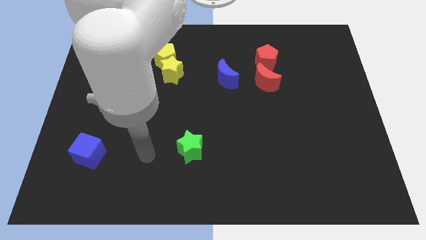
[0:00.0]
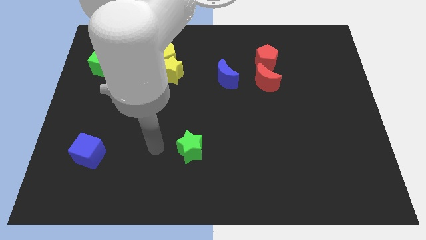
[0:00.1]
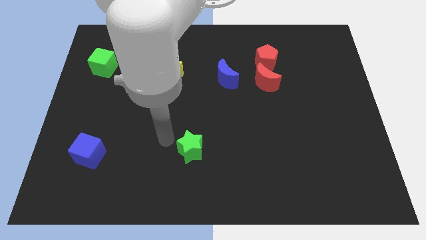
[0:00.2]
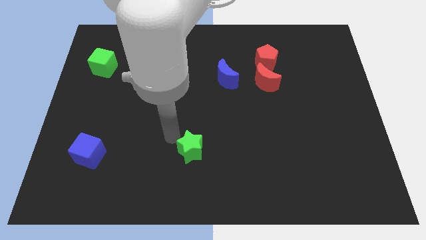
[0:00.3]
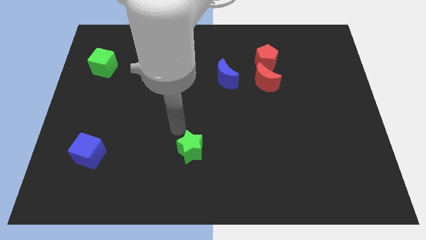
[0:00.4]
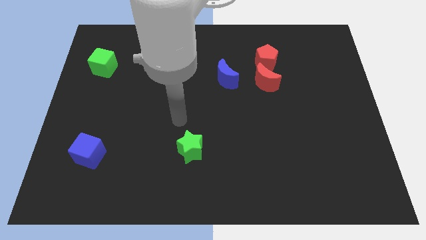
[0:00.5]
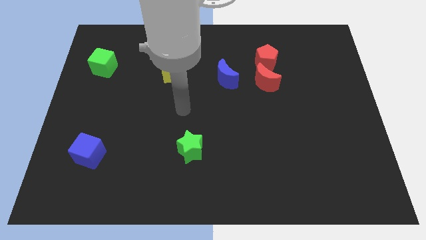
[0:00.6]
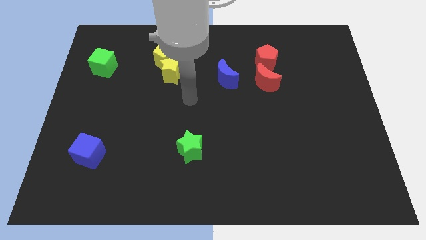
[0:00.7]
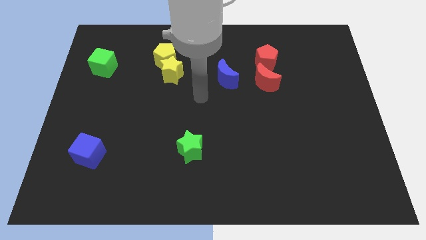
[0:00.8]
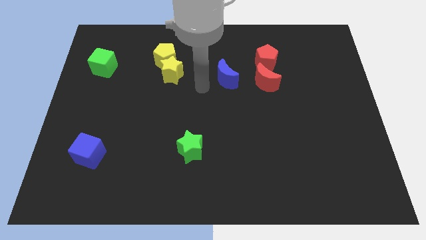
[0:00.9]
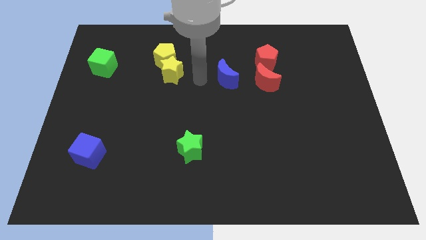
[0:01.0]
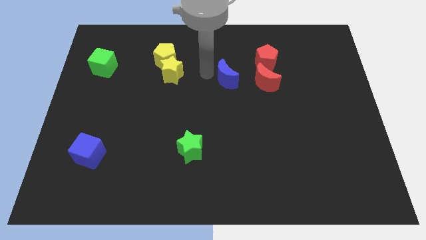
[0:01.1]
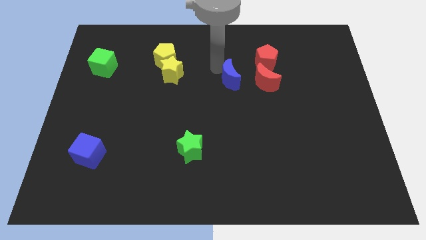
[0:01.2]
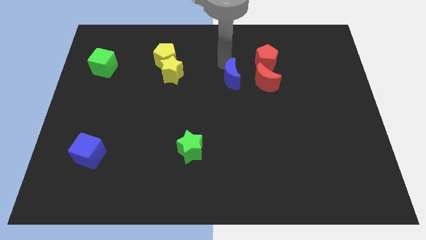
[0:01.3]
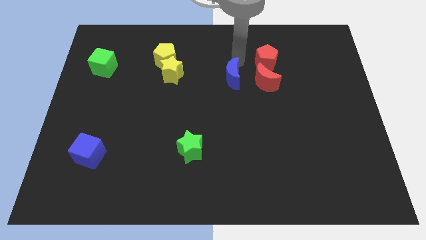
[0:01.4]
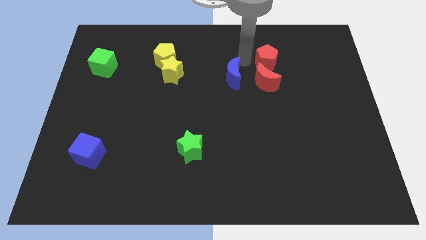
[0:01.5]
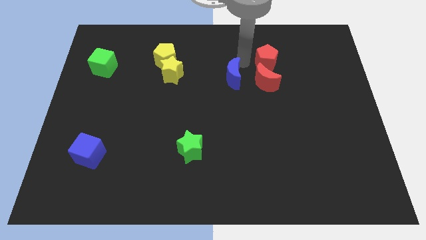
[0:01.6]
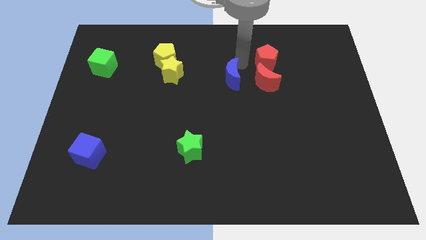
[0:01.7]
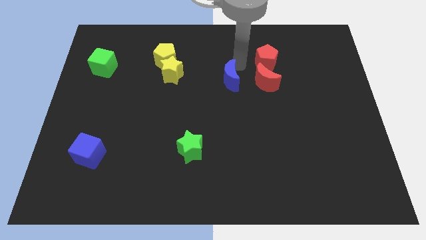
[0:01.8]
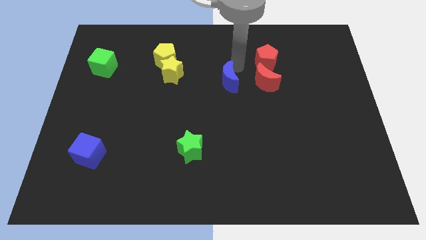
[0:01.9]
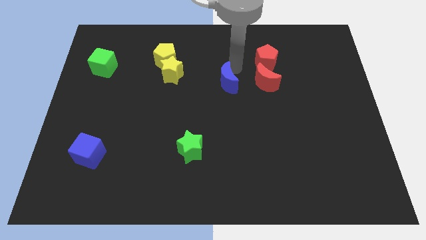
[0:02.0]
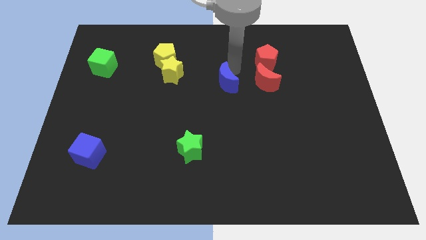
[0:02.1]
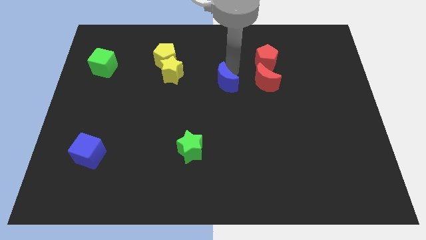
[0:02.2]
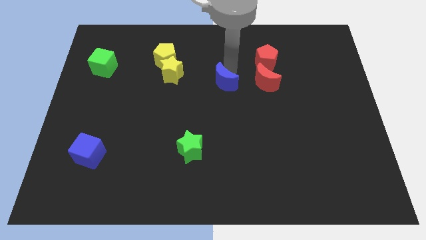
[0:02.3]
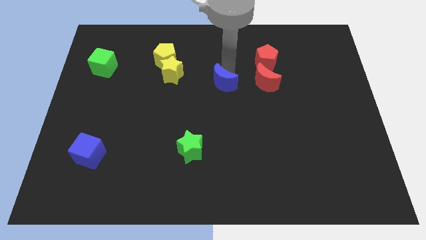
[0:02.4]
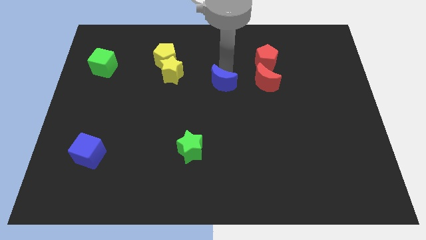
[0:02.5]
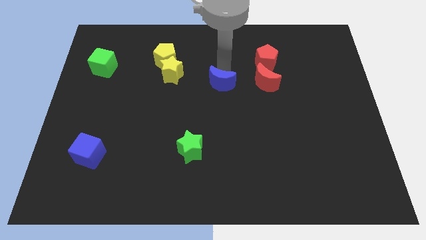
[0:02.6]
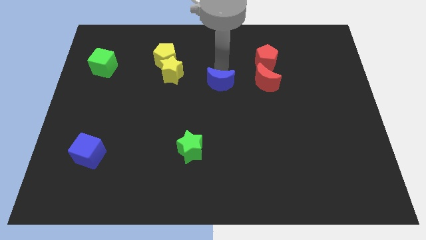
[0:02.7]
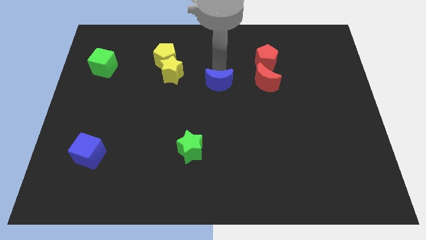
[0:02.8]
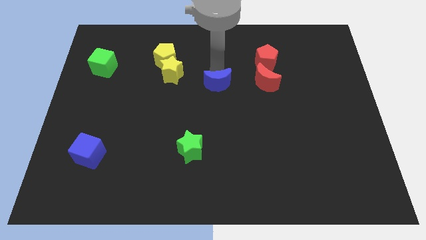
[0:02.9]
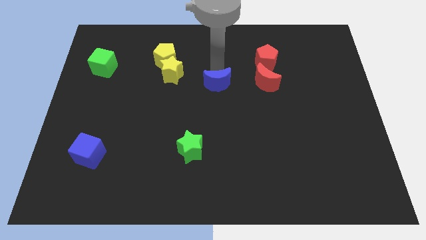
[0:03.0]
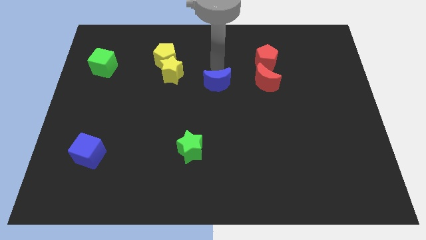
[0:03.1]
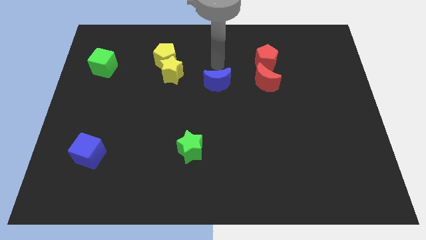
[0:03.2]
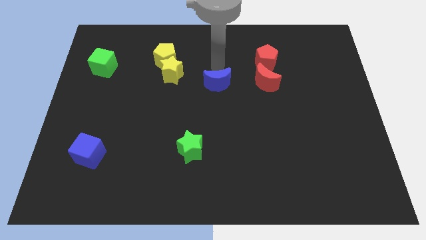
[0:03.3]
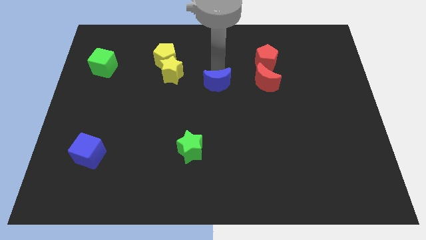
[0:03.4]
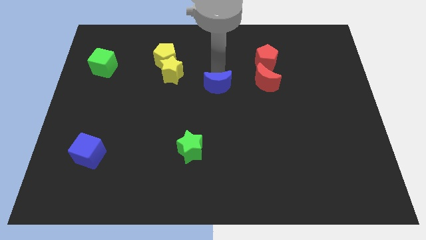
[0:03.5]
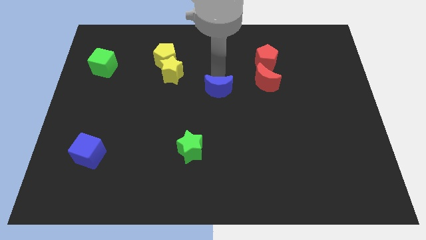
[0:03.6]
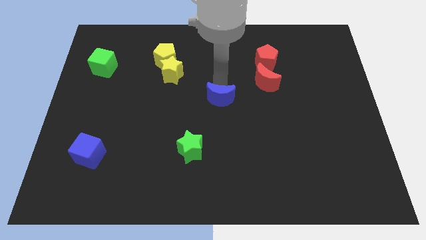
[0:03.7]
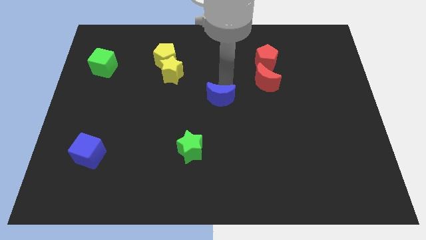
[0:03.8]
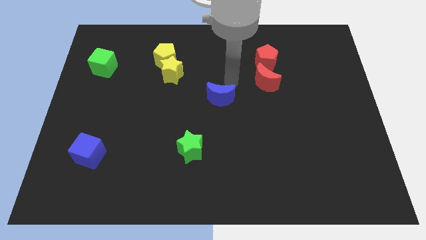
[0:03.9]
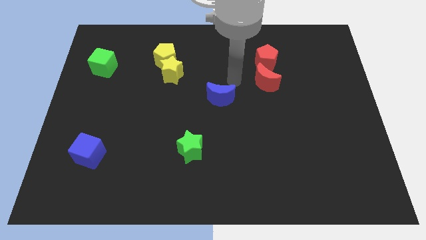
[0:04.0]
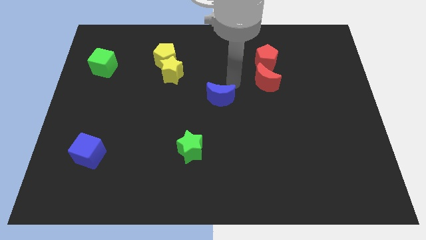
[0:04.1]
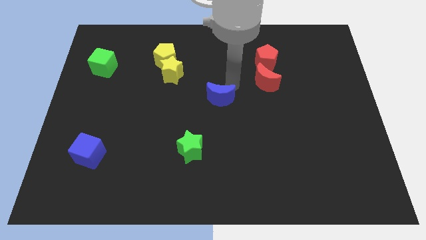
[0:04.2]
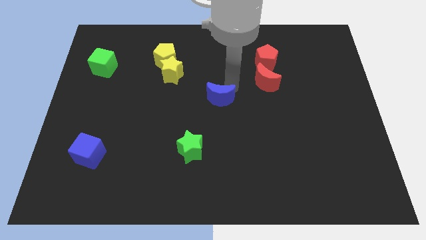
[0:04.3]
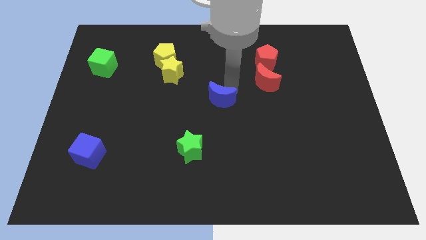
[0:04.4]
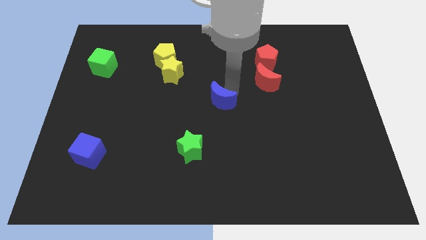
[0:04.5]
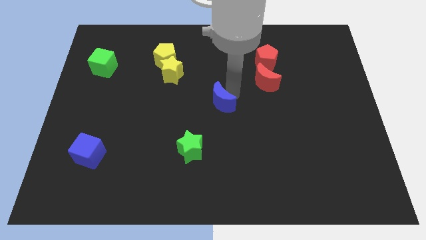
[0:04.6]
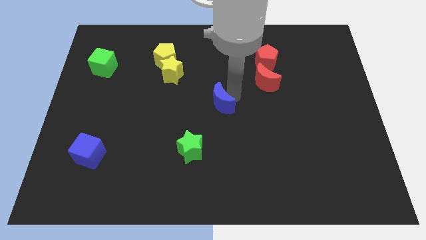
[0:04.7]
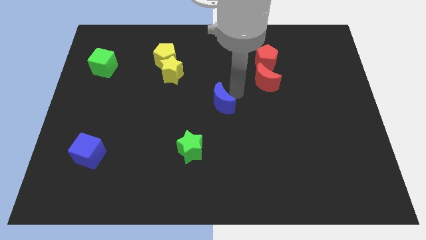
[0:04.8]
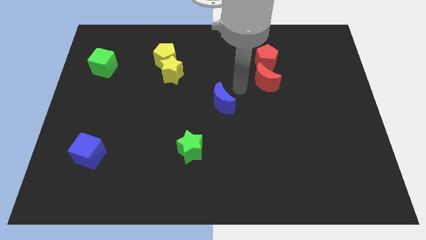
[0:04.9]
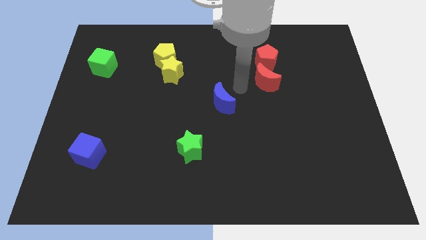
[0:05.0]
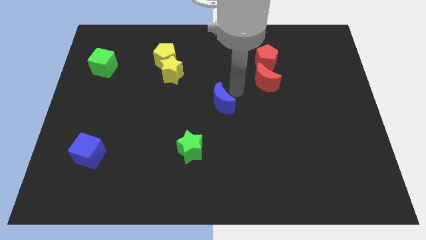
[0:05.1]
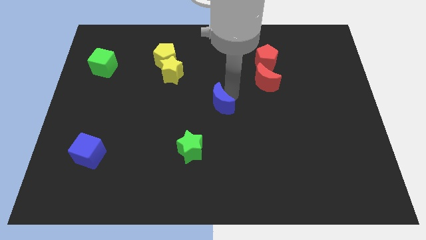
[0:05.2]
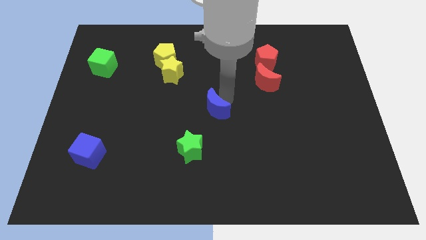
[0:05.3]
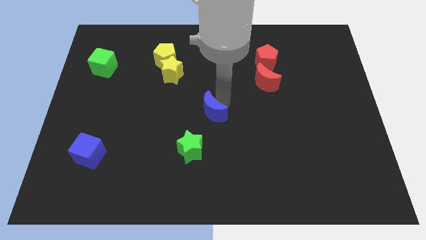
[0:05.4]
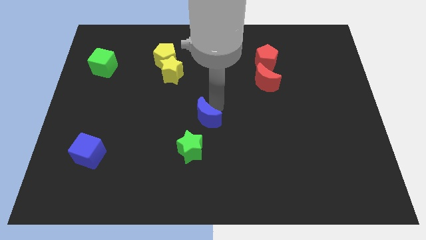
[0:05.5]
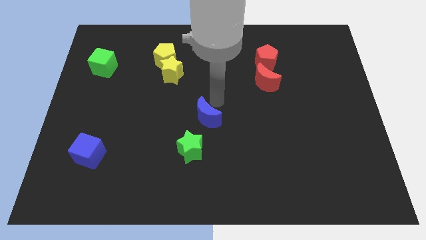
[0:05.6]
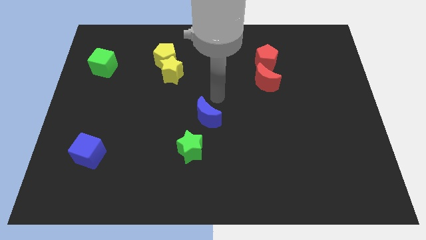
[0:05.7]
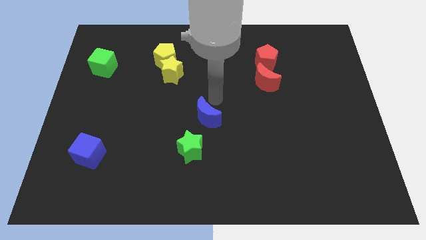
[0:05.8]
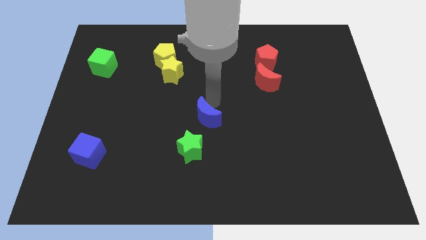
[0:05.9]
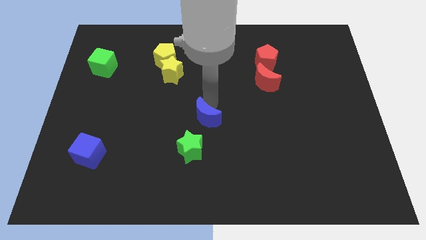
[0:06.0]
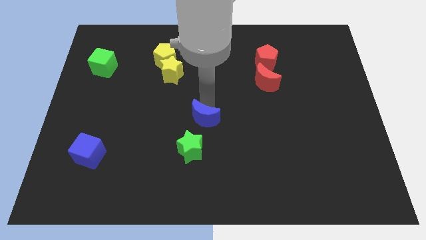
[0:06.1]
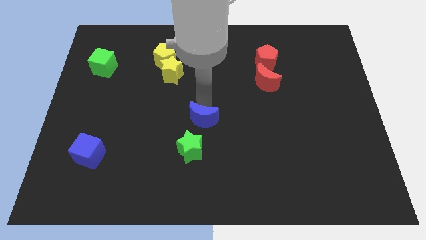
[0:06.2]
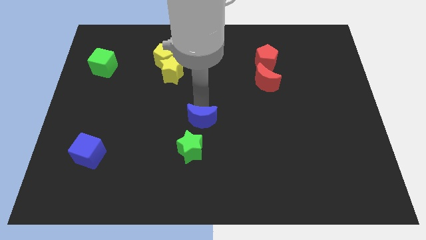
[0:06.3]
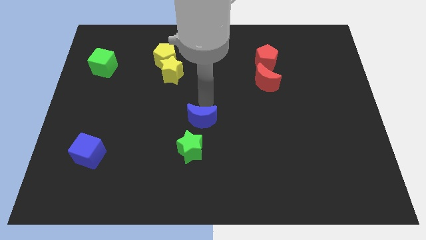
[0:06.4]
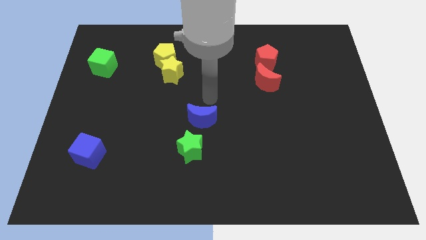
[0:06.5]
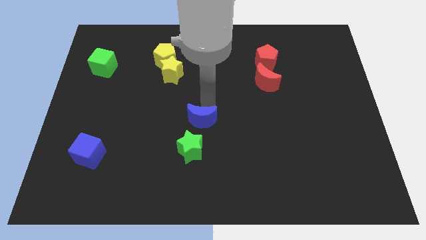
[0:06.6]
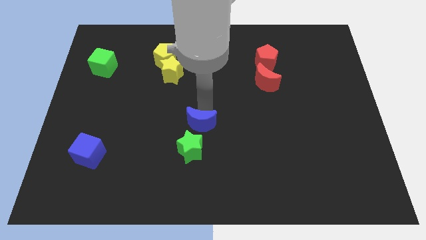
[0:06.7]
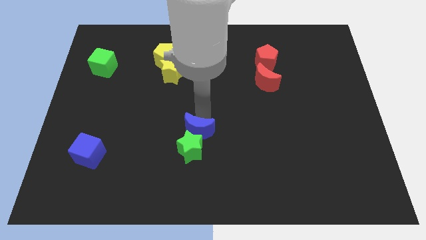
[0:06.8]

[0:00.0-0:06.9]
put the blue moon towards the green star
